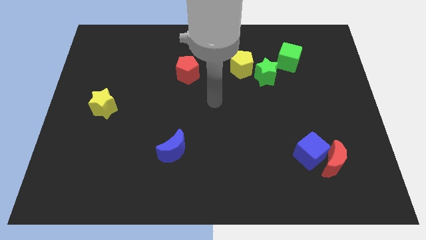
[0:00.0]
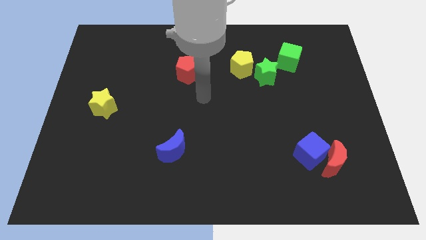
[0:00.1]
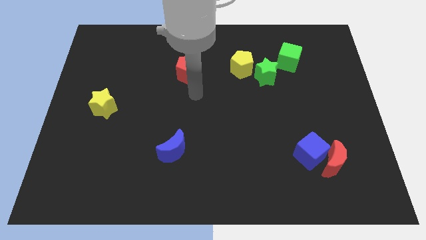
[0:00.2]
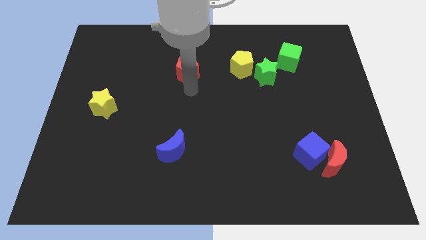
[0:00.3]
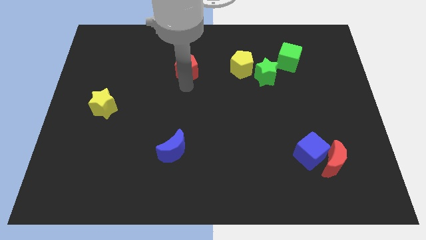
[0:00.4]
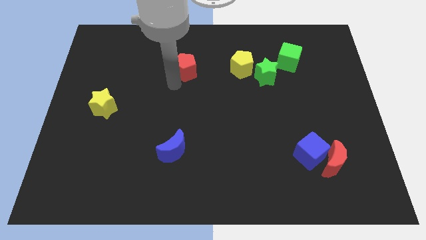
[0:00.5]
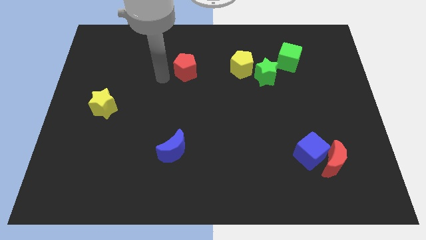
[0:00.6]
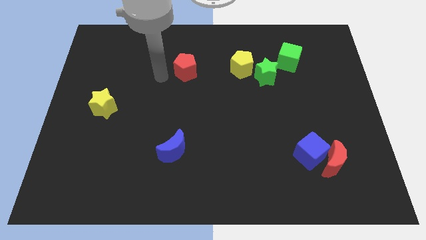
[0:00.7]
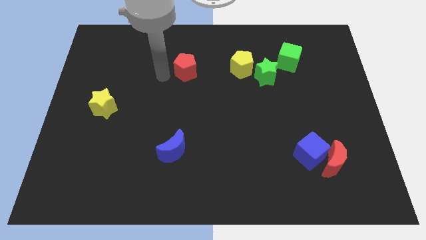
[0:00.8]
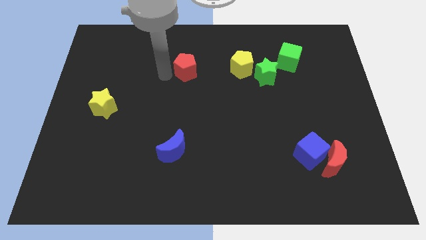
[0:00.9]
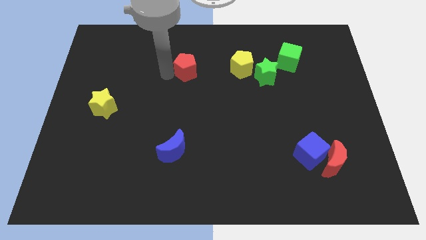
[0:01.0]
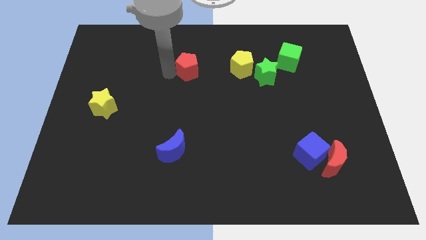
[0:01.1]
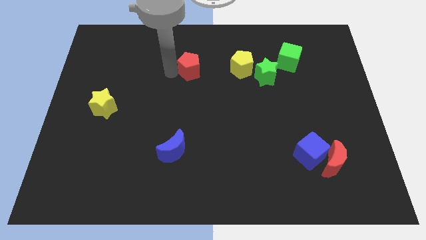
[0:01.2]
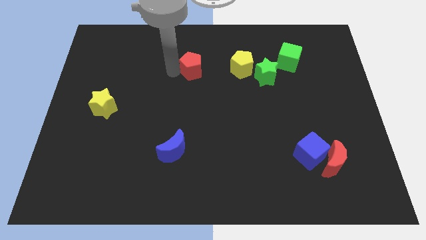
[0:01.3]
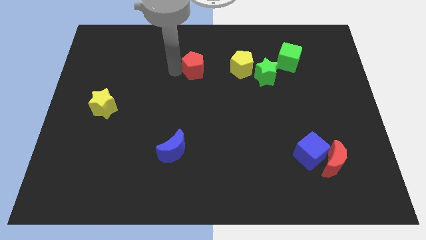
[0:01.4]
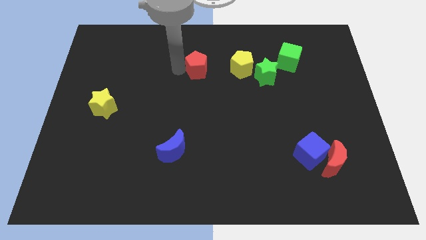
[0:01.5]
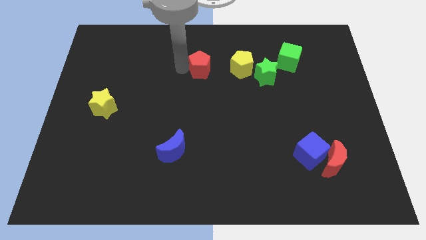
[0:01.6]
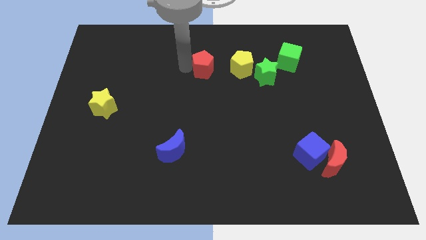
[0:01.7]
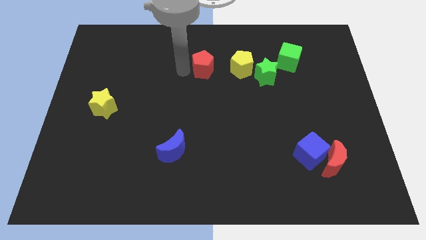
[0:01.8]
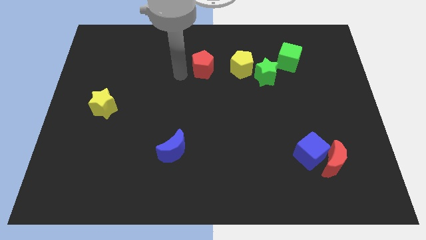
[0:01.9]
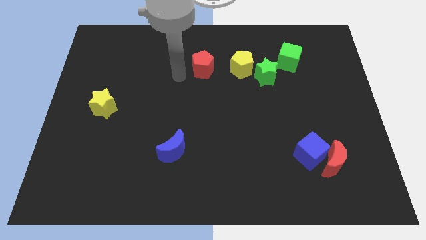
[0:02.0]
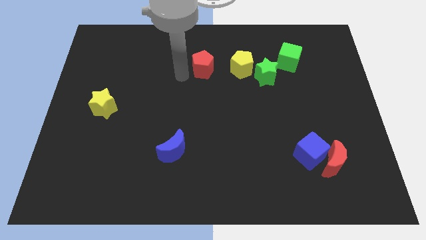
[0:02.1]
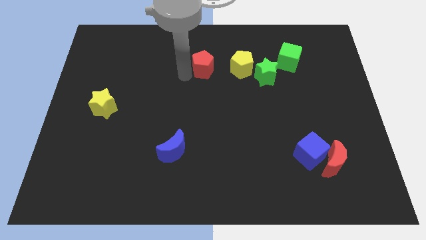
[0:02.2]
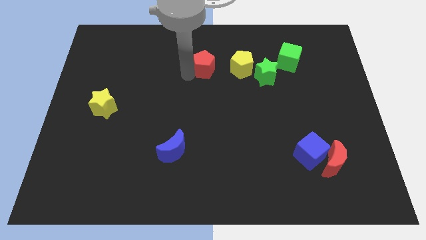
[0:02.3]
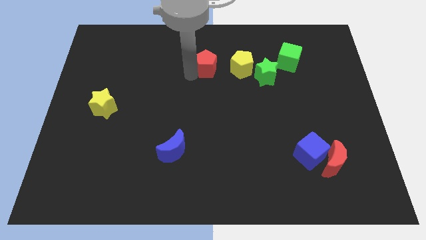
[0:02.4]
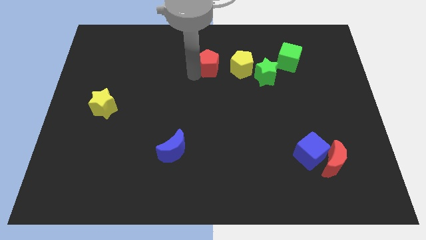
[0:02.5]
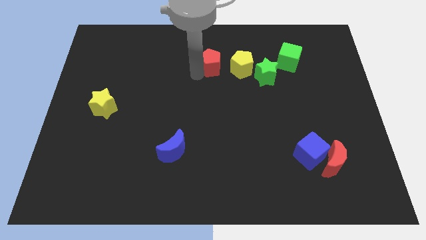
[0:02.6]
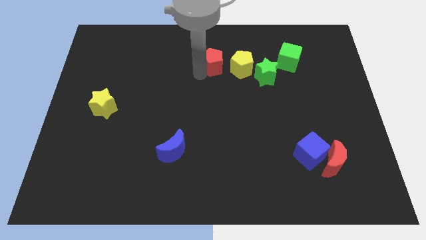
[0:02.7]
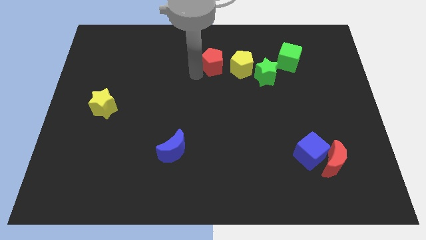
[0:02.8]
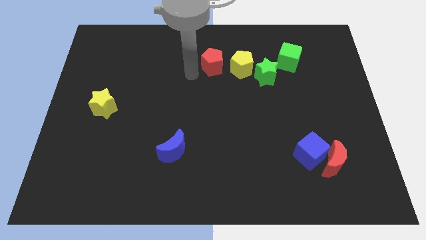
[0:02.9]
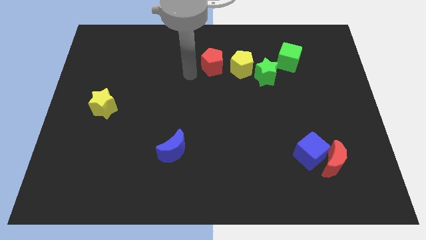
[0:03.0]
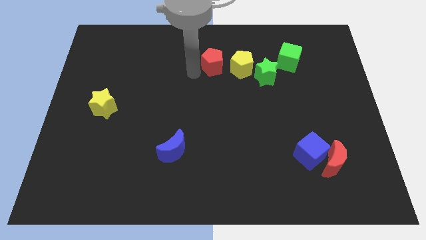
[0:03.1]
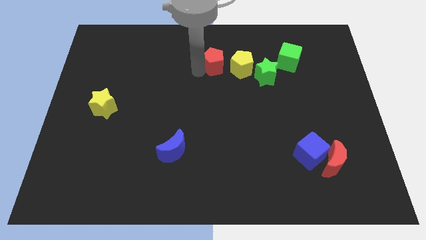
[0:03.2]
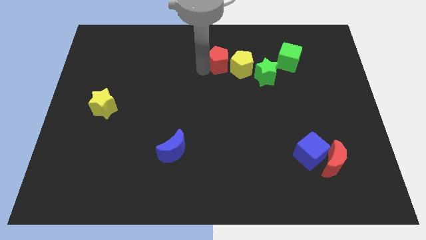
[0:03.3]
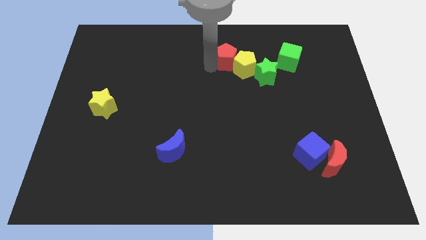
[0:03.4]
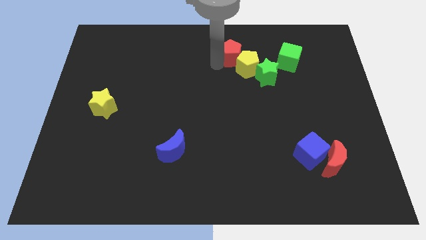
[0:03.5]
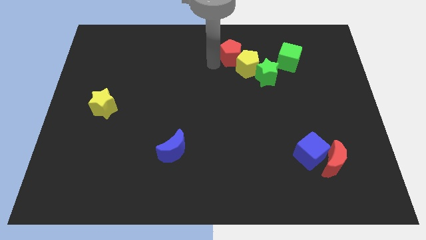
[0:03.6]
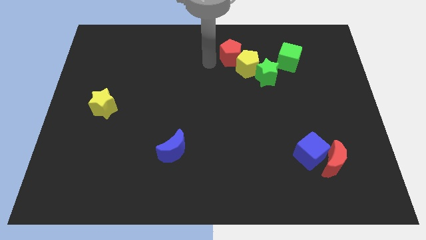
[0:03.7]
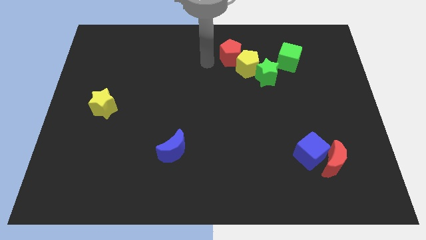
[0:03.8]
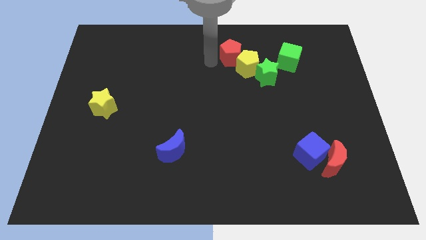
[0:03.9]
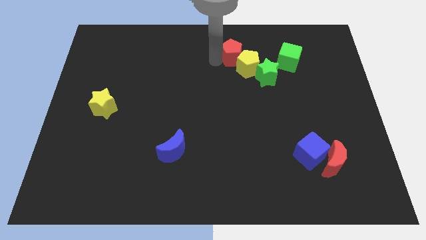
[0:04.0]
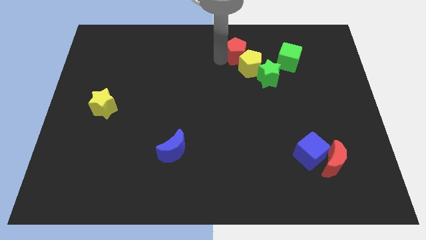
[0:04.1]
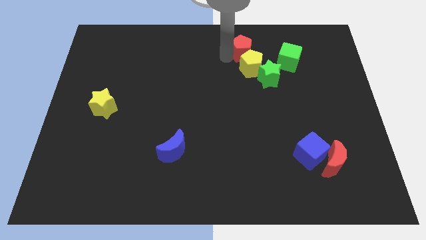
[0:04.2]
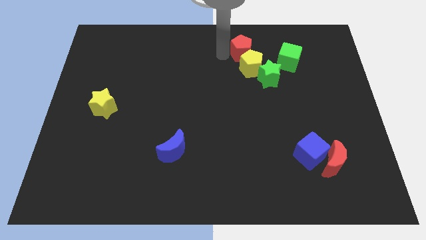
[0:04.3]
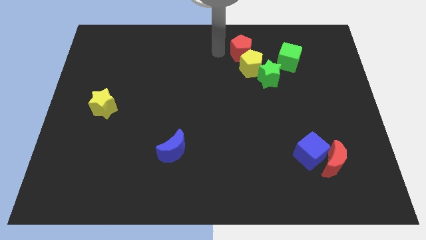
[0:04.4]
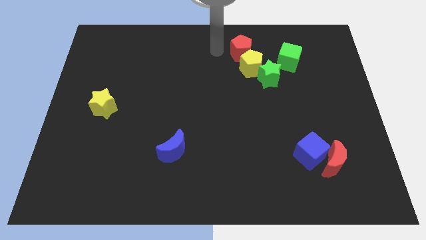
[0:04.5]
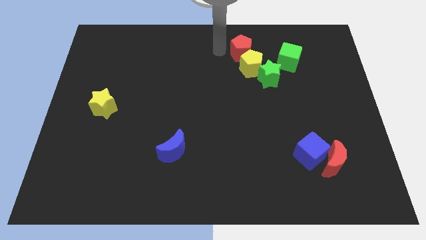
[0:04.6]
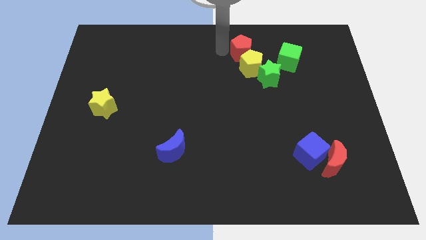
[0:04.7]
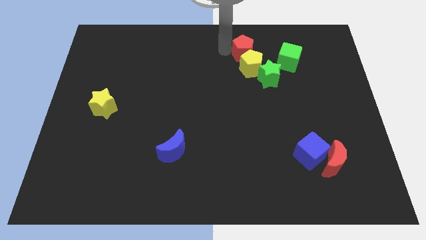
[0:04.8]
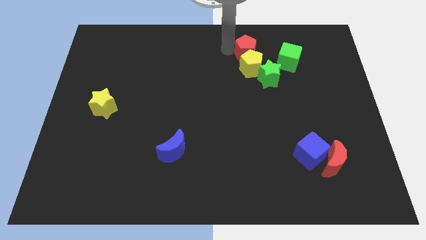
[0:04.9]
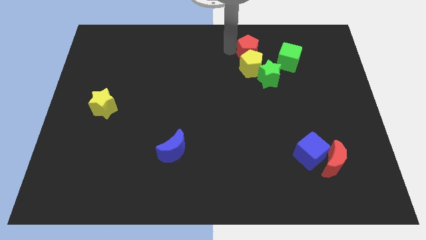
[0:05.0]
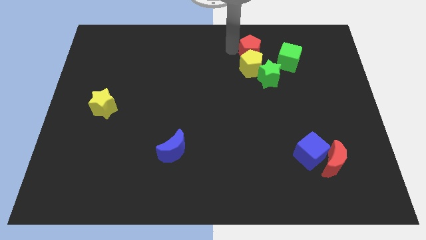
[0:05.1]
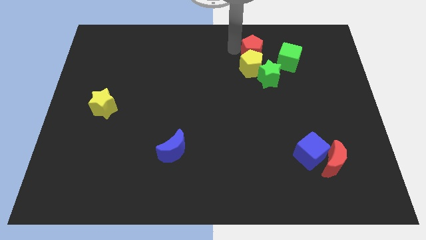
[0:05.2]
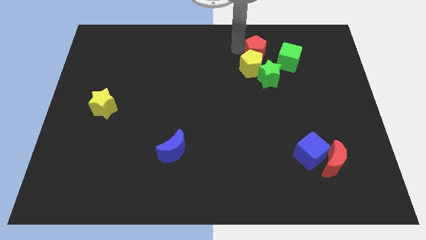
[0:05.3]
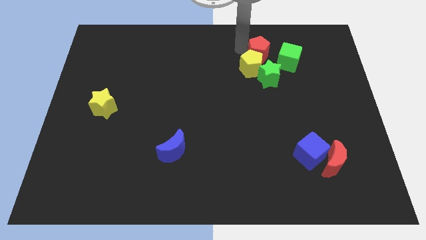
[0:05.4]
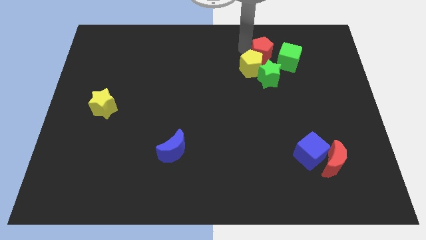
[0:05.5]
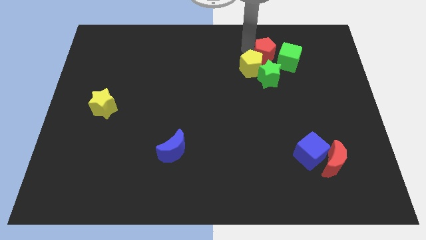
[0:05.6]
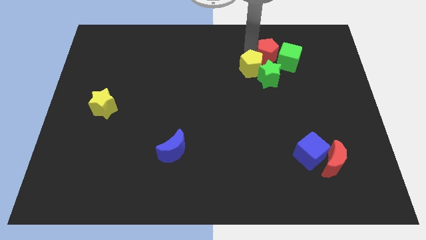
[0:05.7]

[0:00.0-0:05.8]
slide the red pentagon towards the green cube

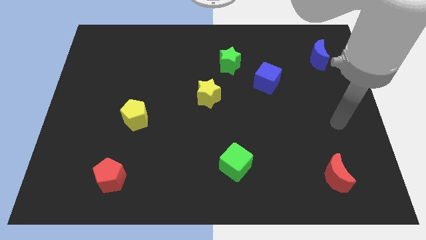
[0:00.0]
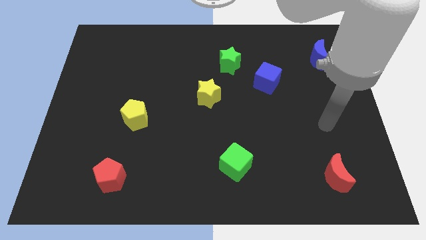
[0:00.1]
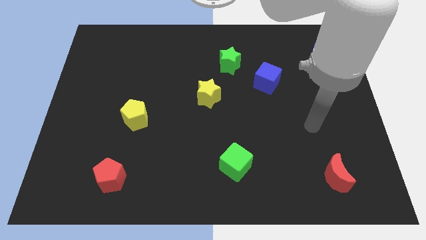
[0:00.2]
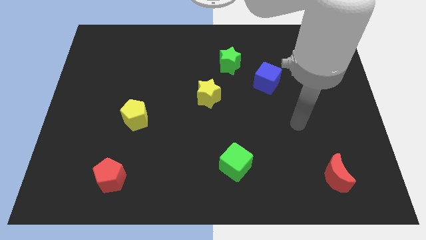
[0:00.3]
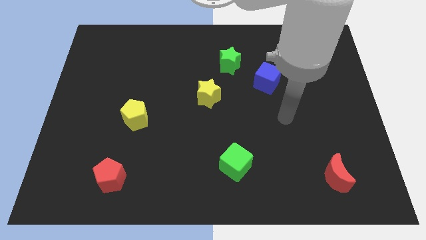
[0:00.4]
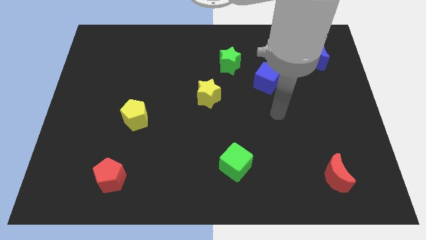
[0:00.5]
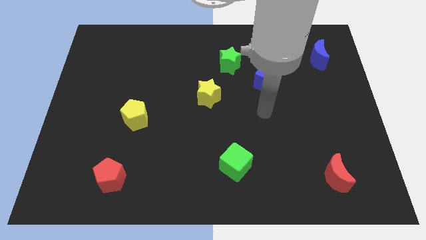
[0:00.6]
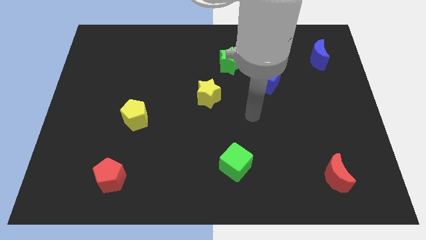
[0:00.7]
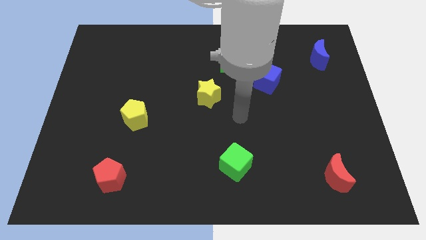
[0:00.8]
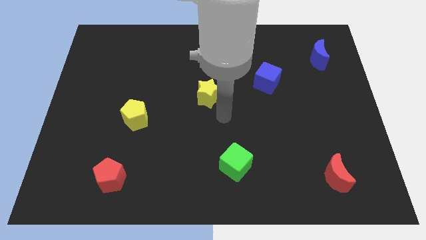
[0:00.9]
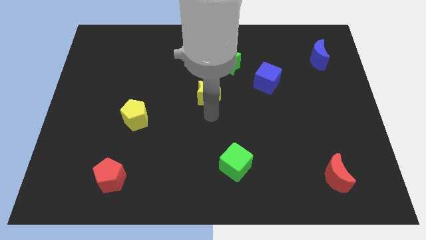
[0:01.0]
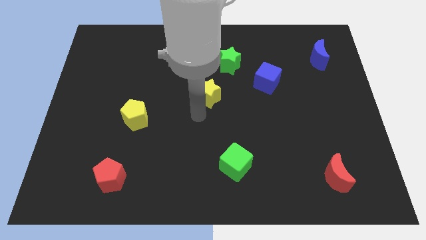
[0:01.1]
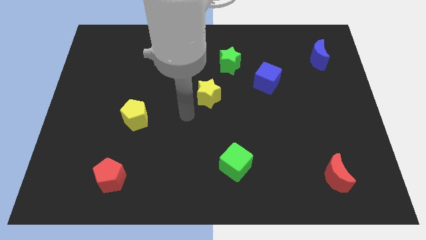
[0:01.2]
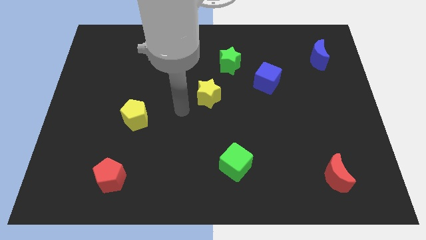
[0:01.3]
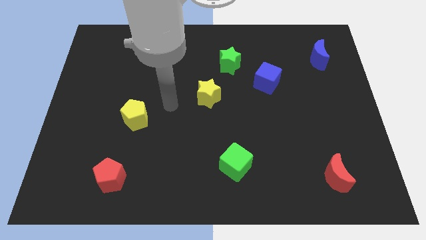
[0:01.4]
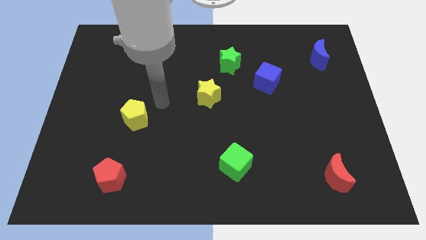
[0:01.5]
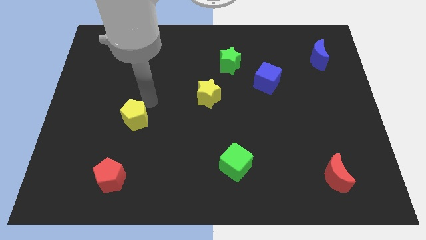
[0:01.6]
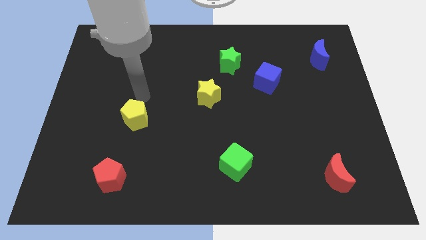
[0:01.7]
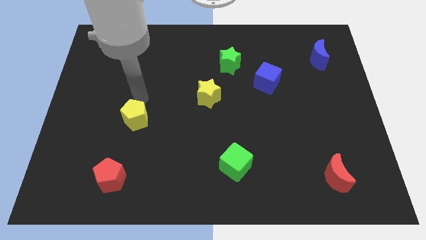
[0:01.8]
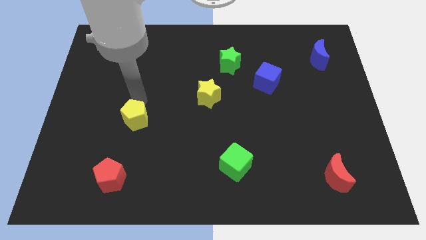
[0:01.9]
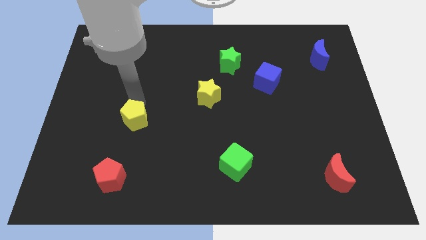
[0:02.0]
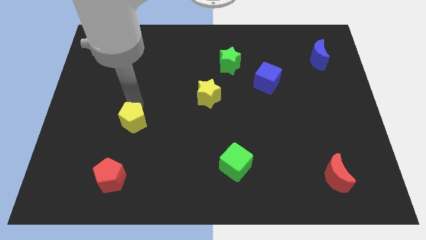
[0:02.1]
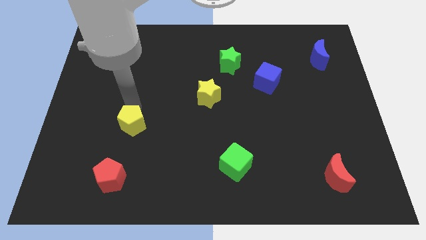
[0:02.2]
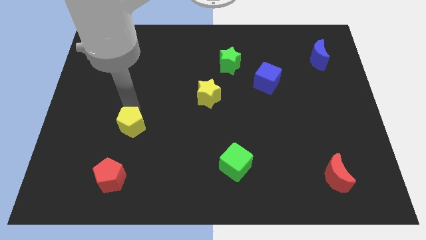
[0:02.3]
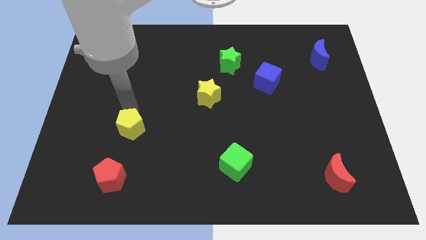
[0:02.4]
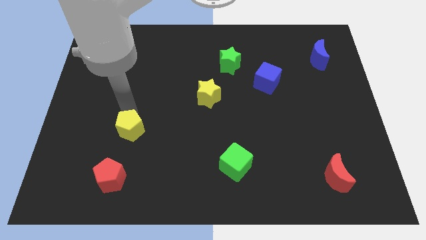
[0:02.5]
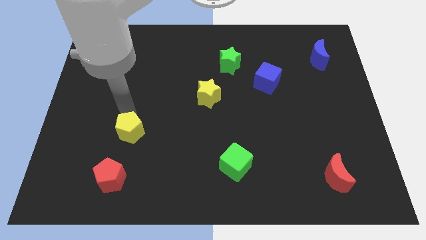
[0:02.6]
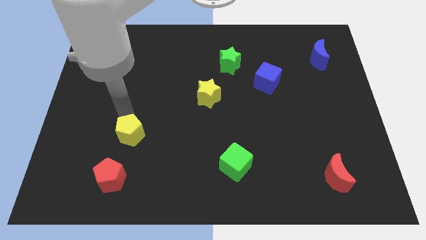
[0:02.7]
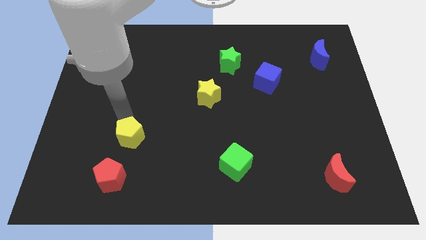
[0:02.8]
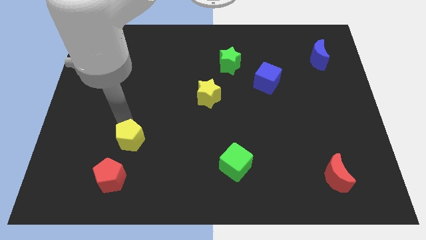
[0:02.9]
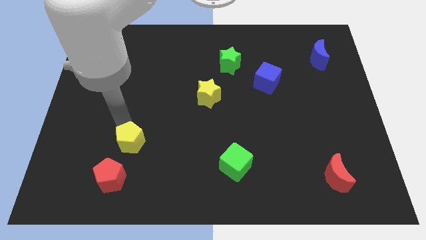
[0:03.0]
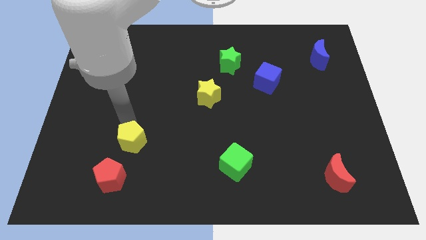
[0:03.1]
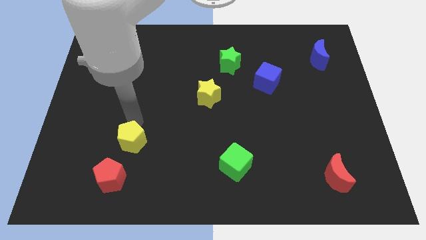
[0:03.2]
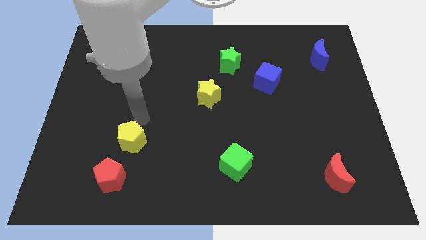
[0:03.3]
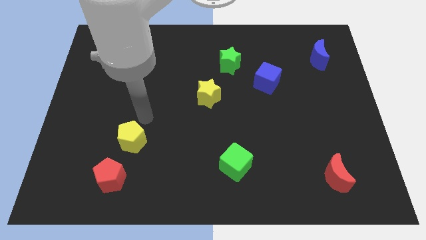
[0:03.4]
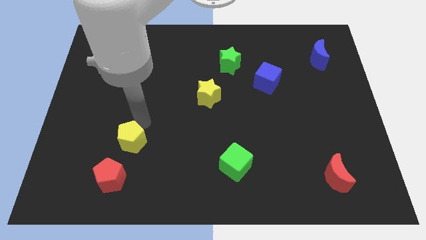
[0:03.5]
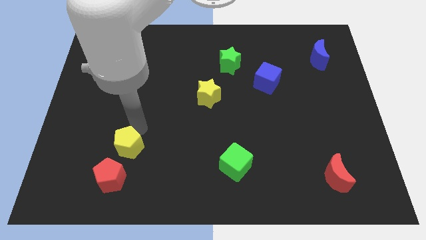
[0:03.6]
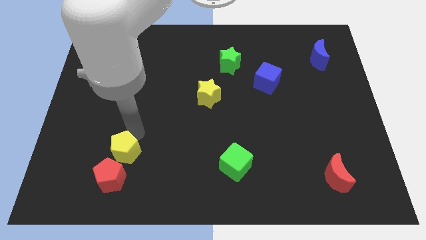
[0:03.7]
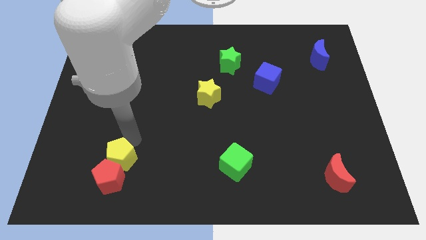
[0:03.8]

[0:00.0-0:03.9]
push the yellow pentagon to the red pentagon
